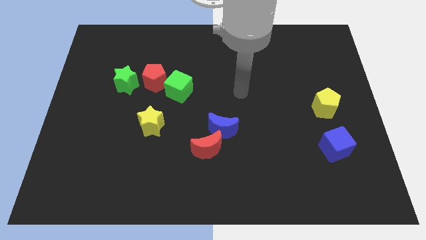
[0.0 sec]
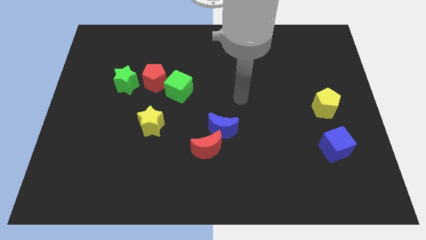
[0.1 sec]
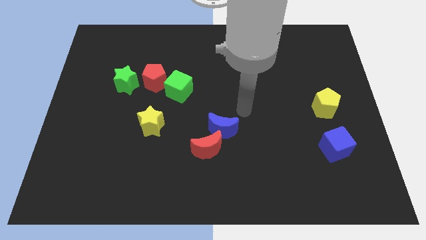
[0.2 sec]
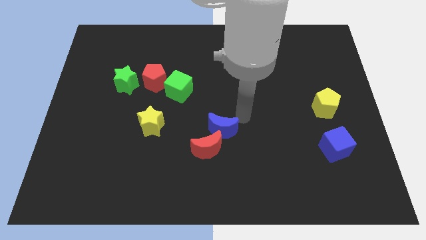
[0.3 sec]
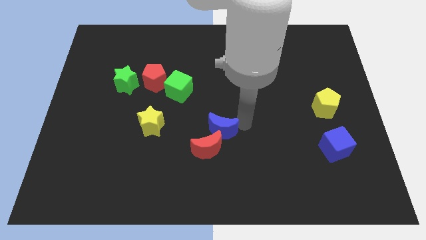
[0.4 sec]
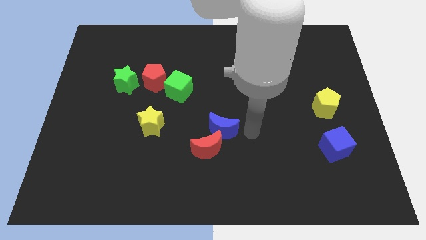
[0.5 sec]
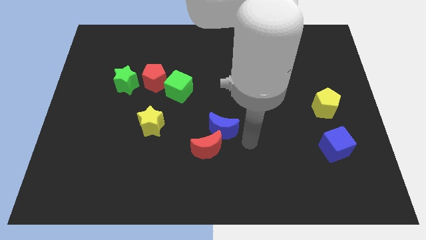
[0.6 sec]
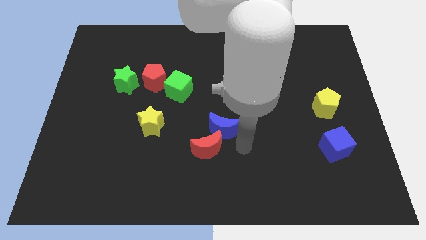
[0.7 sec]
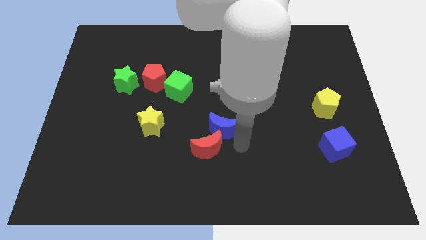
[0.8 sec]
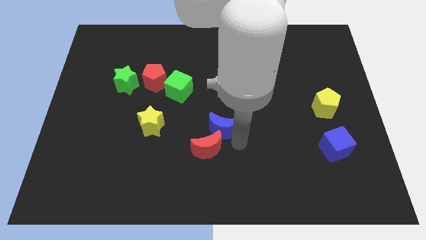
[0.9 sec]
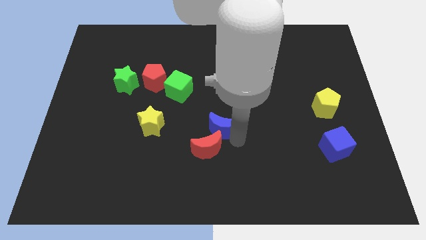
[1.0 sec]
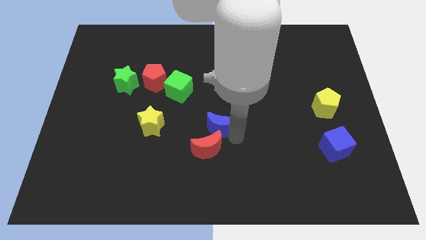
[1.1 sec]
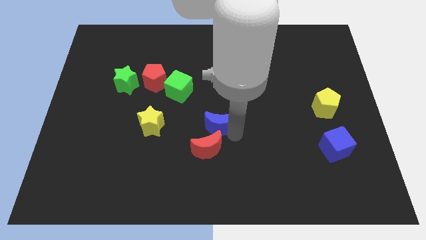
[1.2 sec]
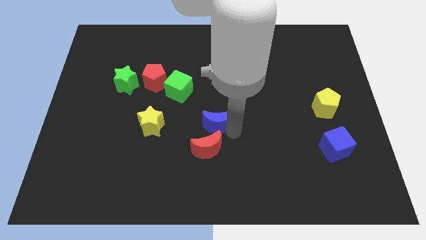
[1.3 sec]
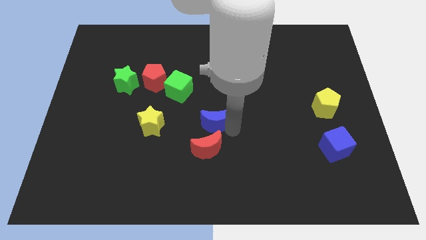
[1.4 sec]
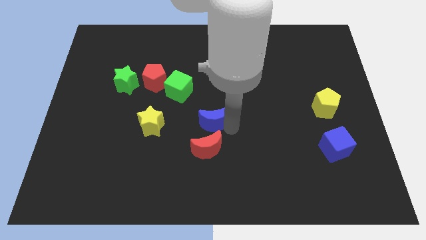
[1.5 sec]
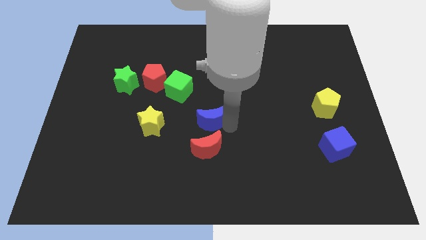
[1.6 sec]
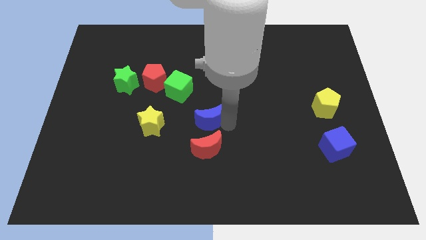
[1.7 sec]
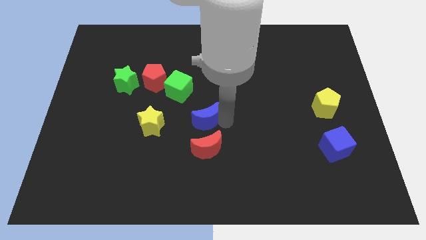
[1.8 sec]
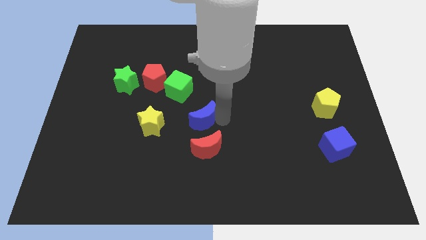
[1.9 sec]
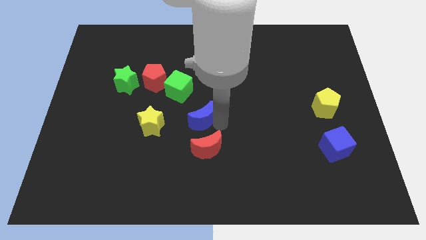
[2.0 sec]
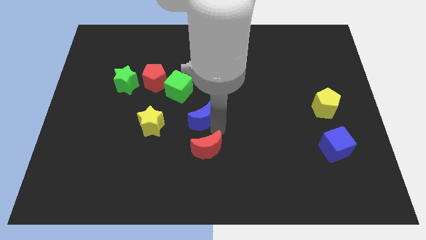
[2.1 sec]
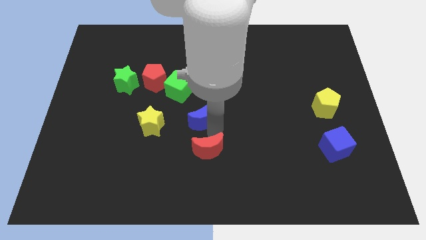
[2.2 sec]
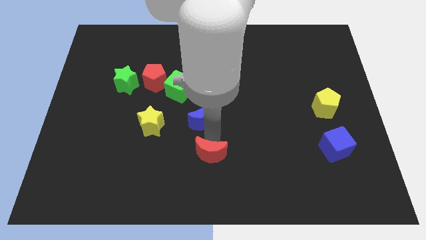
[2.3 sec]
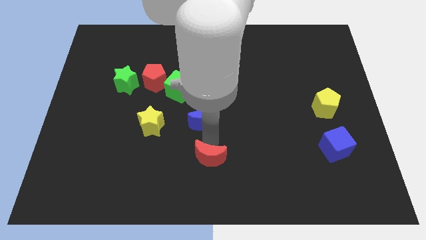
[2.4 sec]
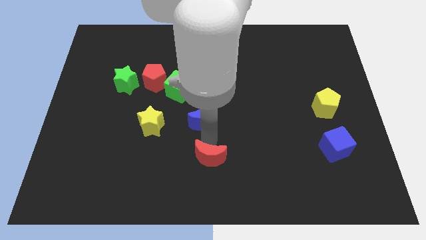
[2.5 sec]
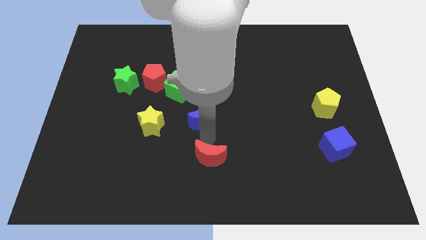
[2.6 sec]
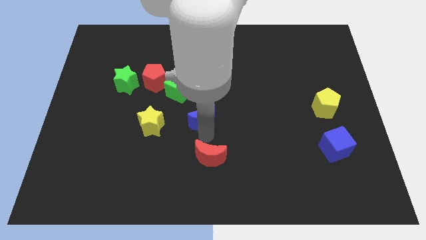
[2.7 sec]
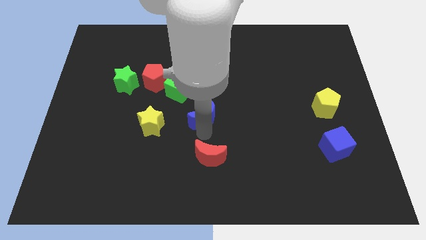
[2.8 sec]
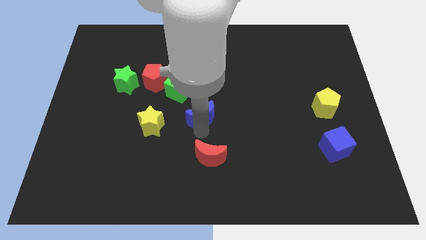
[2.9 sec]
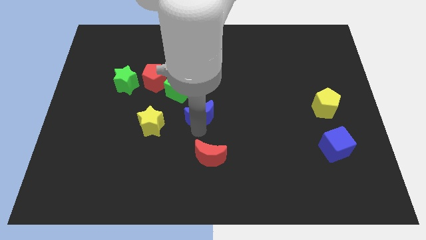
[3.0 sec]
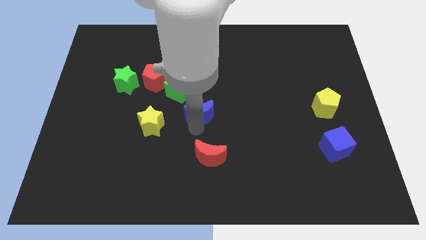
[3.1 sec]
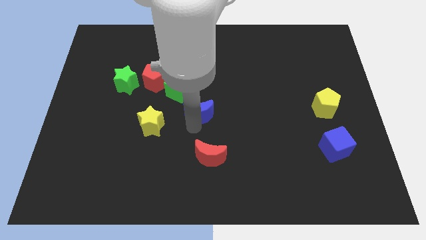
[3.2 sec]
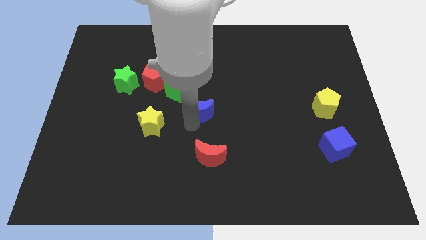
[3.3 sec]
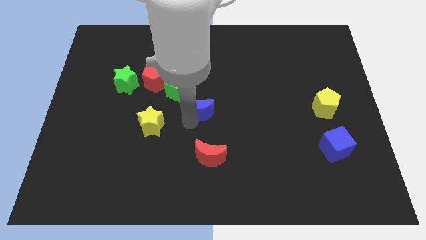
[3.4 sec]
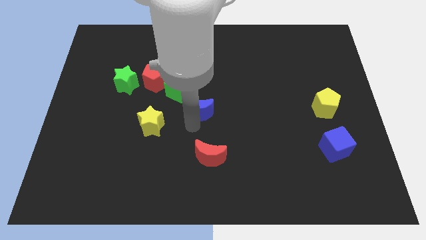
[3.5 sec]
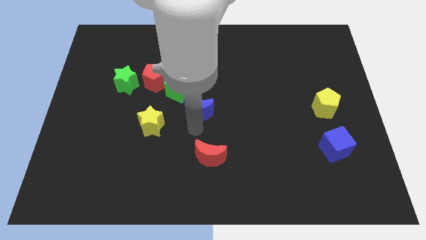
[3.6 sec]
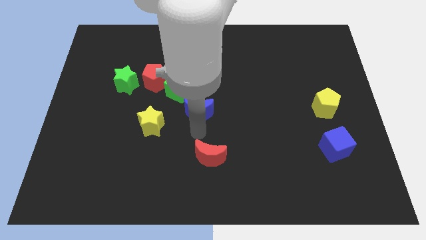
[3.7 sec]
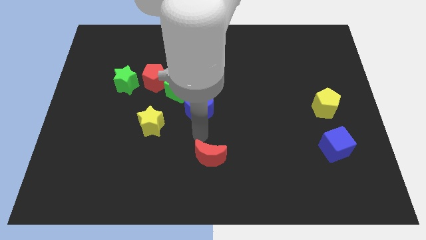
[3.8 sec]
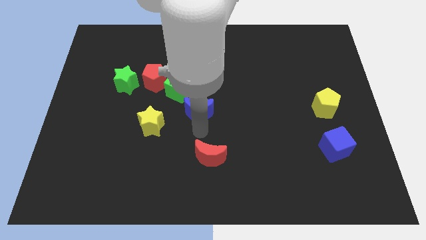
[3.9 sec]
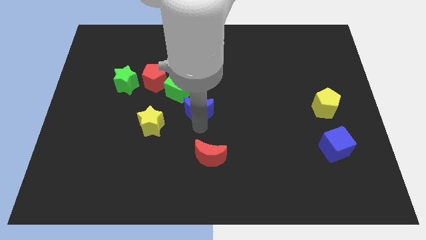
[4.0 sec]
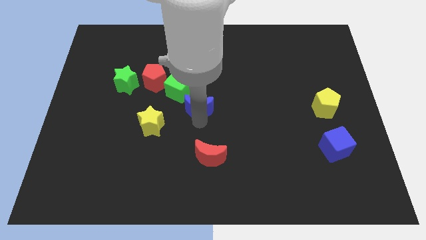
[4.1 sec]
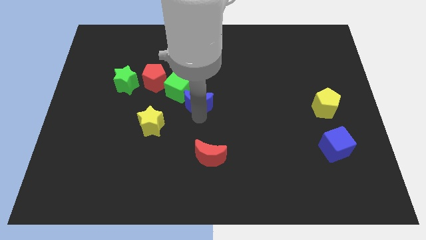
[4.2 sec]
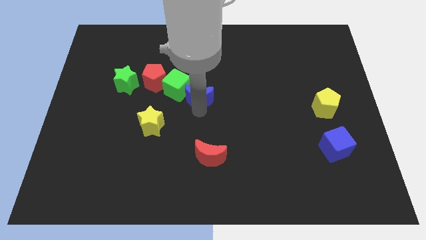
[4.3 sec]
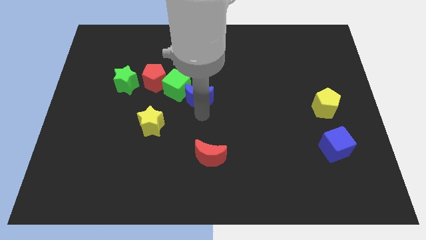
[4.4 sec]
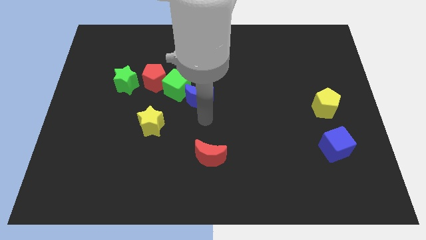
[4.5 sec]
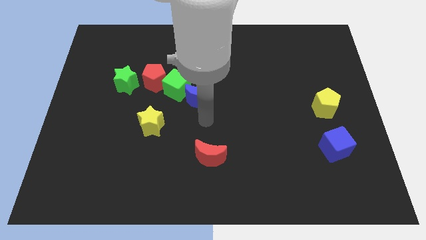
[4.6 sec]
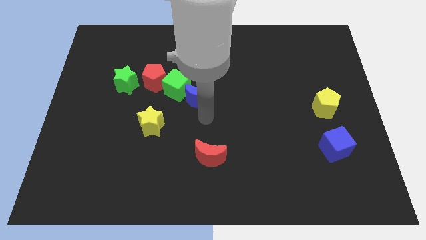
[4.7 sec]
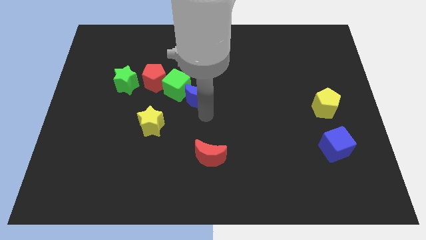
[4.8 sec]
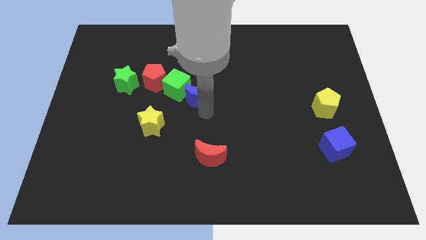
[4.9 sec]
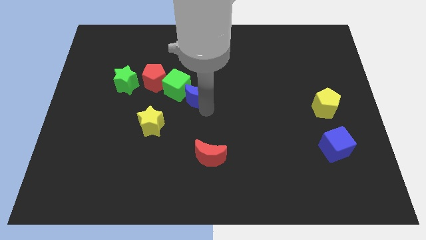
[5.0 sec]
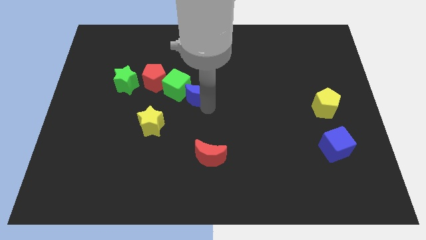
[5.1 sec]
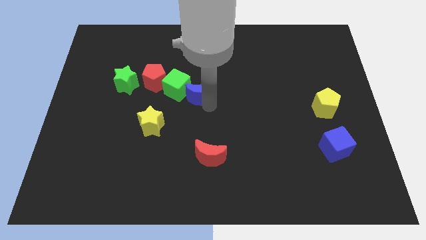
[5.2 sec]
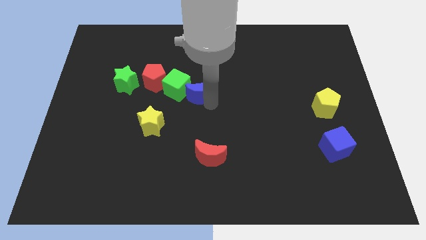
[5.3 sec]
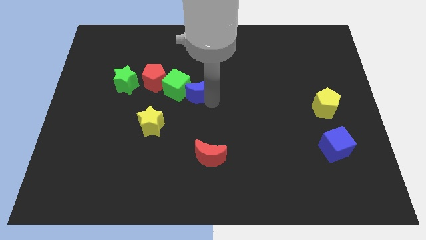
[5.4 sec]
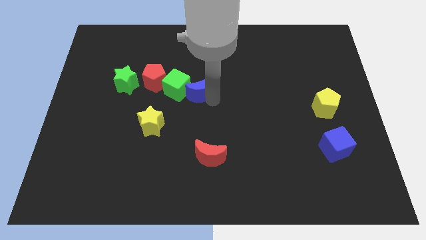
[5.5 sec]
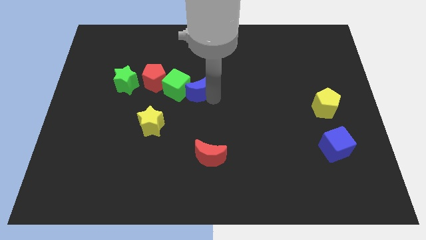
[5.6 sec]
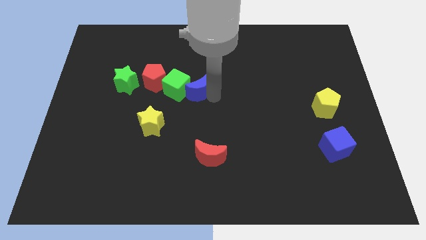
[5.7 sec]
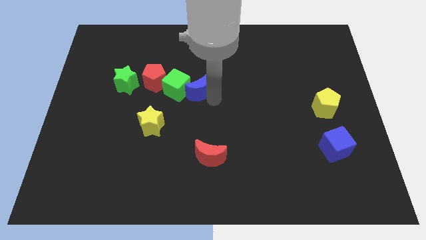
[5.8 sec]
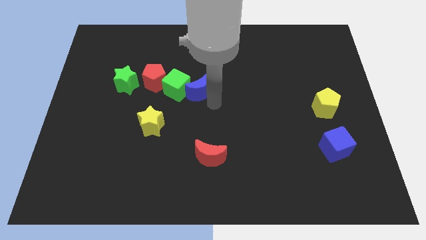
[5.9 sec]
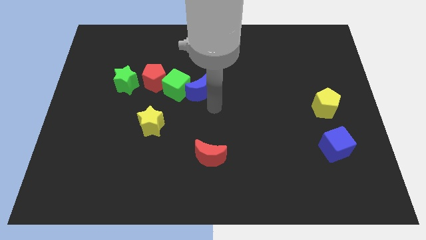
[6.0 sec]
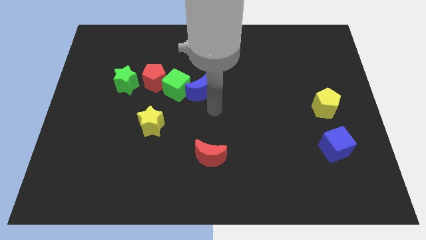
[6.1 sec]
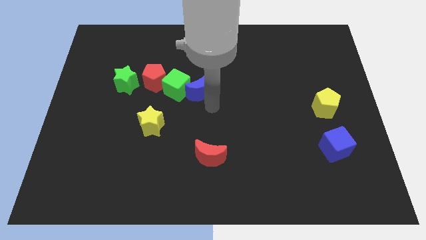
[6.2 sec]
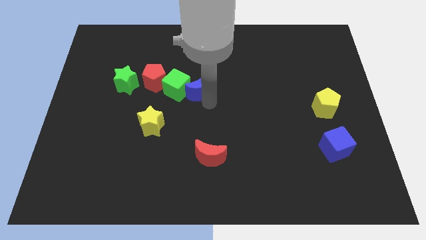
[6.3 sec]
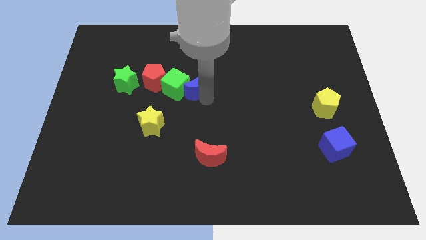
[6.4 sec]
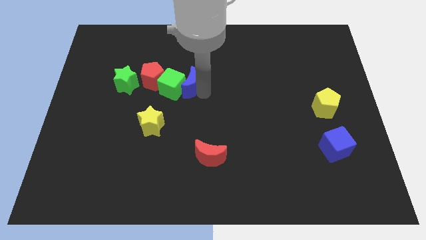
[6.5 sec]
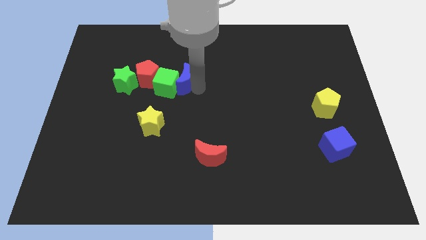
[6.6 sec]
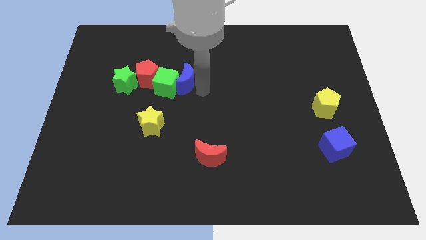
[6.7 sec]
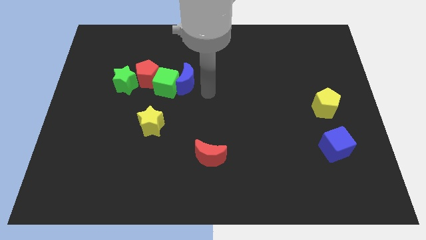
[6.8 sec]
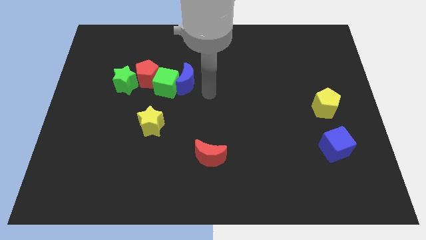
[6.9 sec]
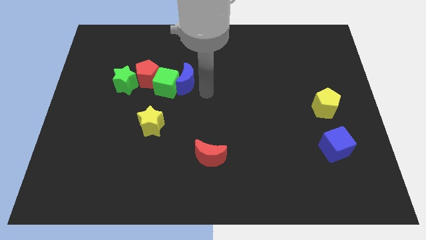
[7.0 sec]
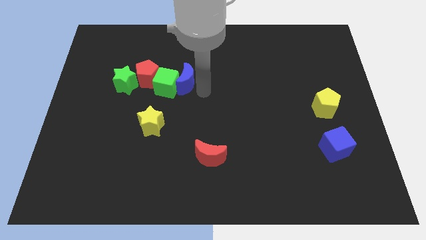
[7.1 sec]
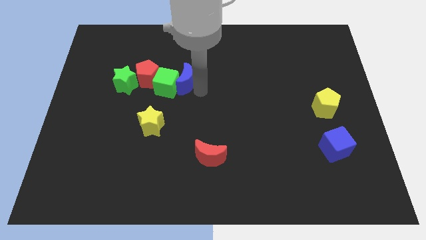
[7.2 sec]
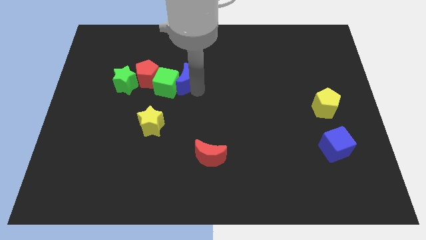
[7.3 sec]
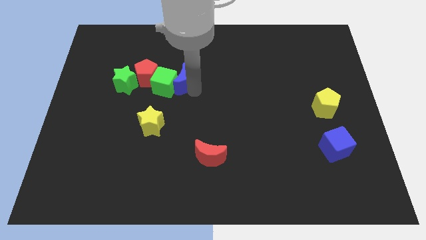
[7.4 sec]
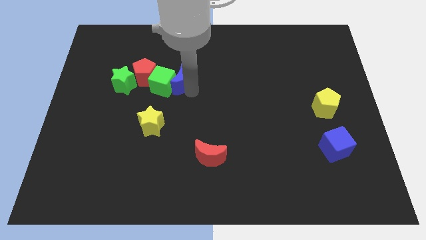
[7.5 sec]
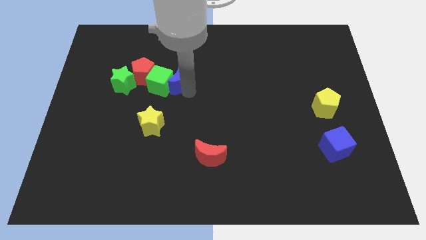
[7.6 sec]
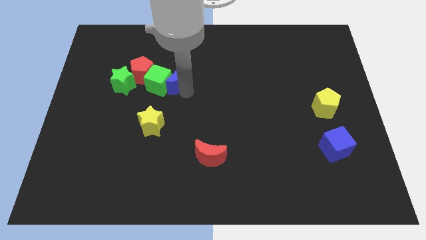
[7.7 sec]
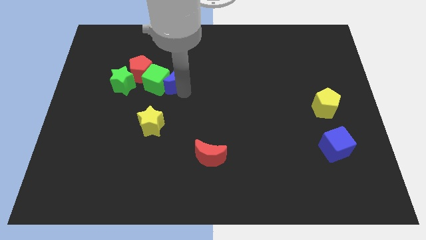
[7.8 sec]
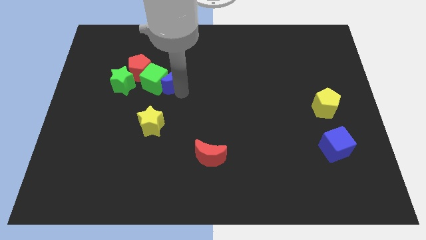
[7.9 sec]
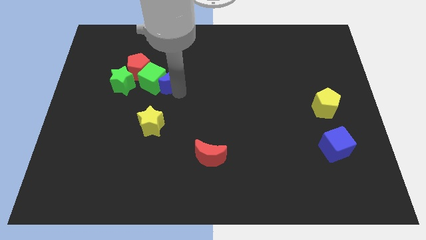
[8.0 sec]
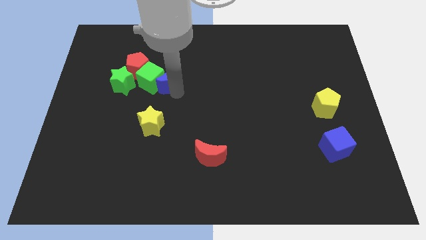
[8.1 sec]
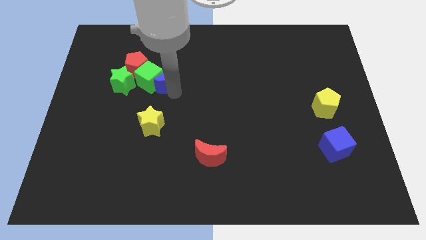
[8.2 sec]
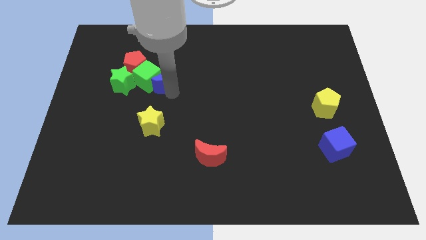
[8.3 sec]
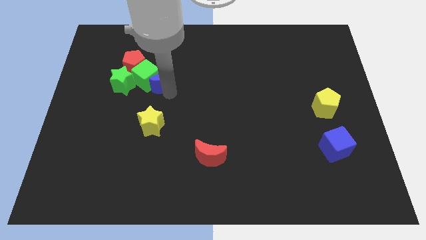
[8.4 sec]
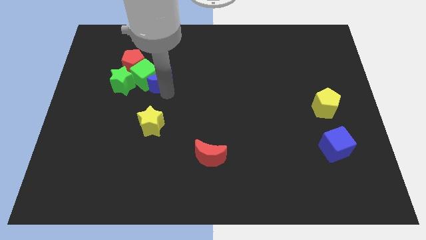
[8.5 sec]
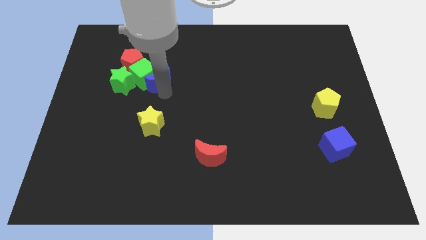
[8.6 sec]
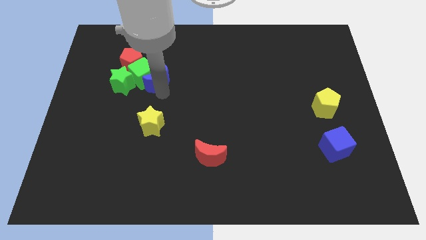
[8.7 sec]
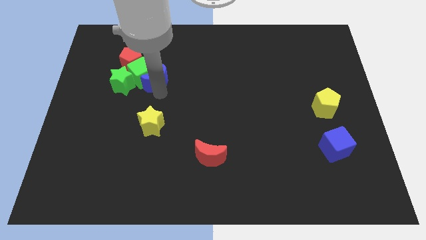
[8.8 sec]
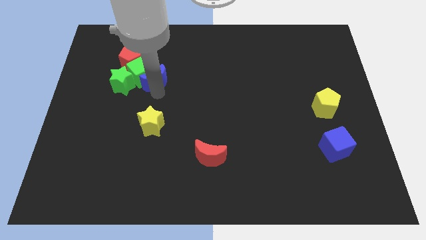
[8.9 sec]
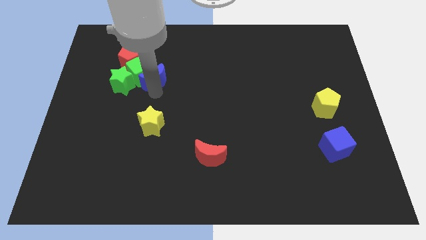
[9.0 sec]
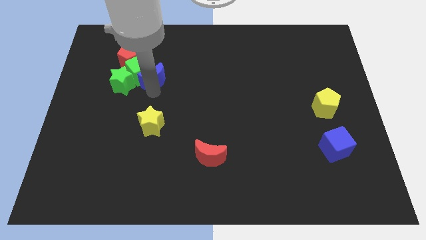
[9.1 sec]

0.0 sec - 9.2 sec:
move the blue moon diagonally up and to the right of the green star
